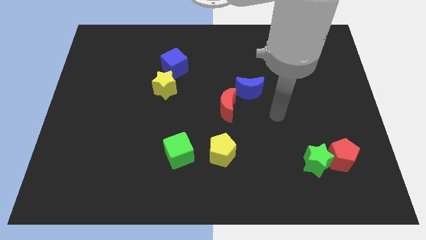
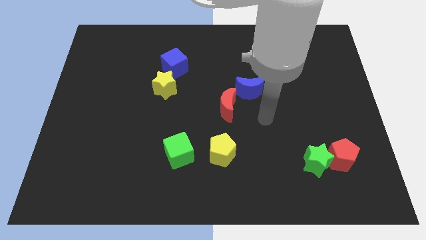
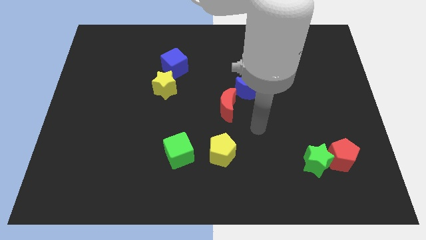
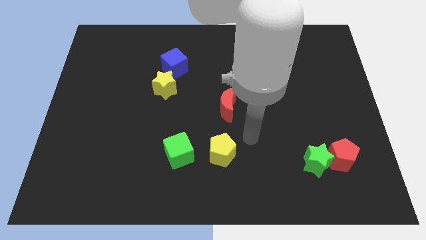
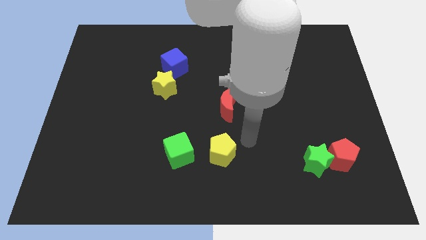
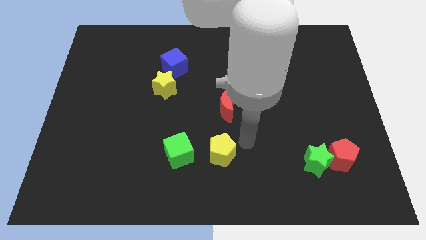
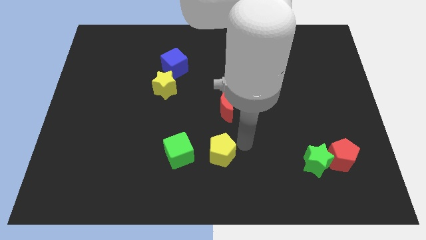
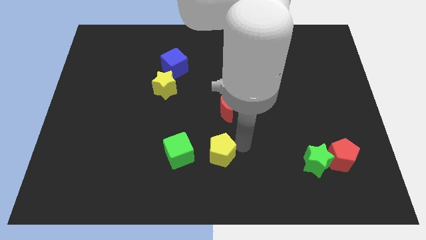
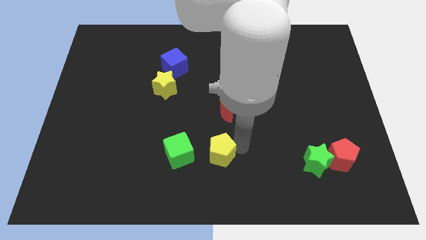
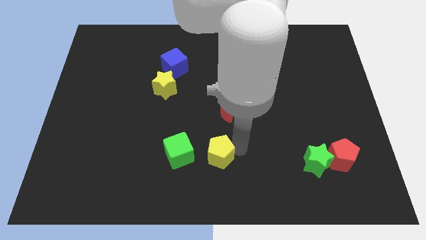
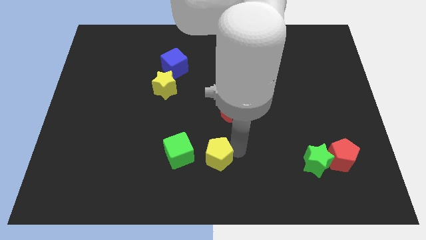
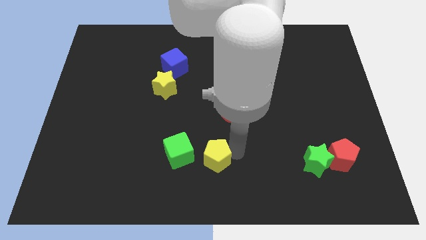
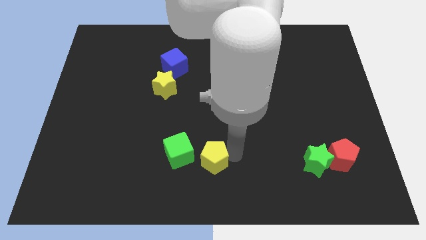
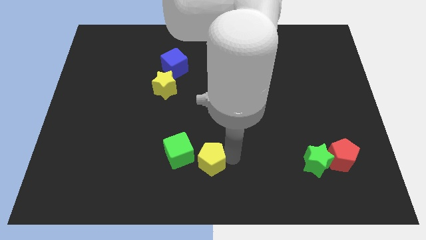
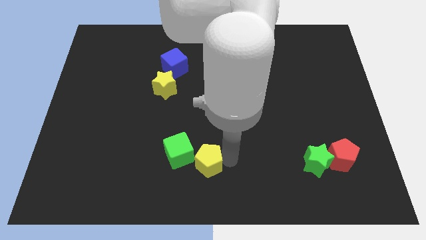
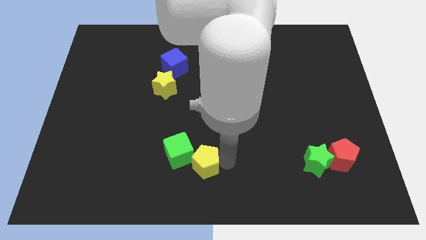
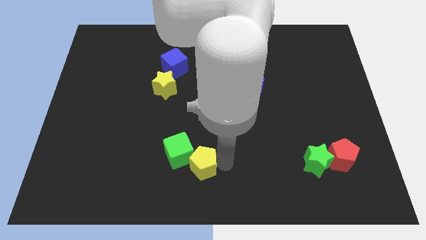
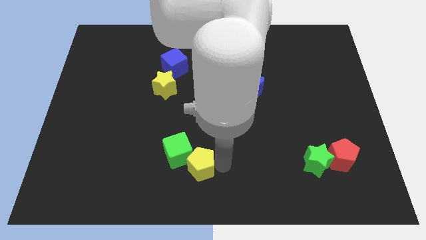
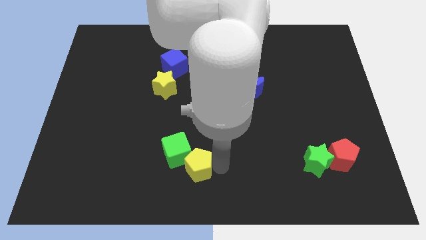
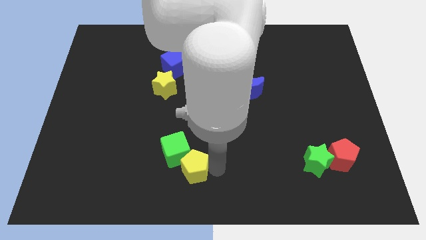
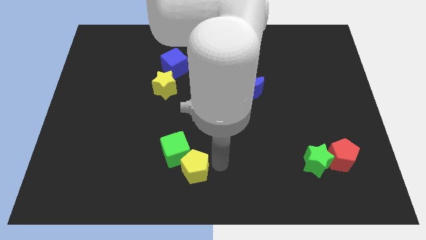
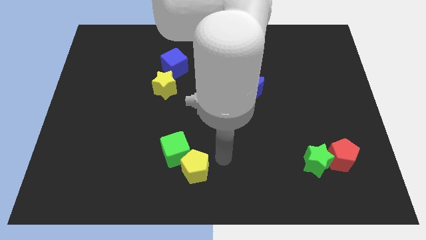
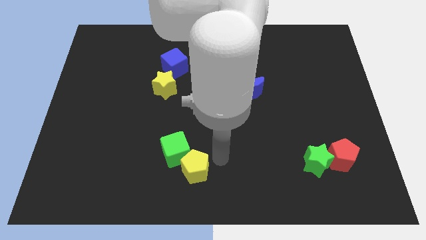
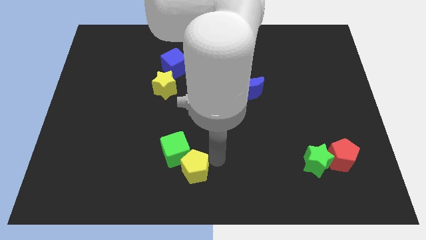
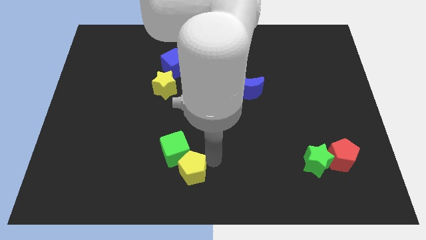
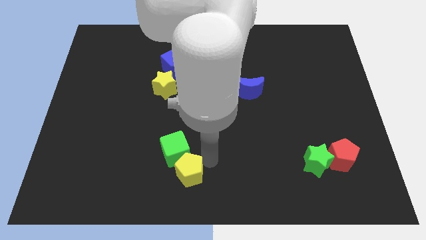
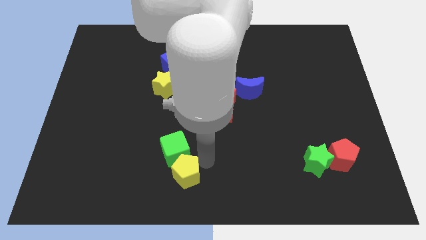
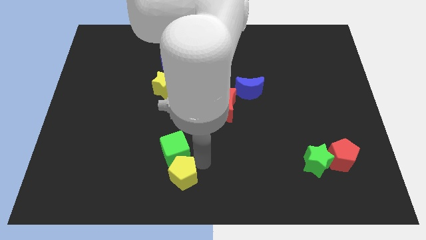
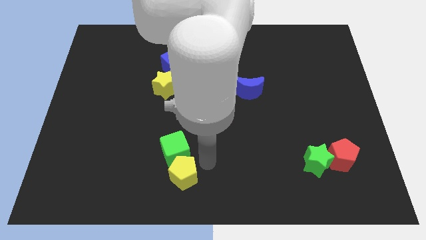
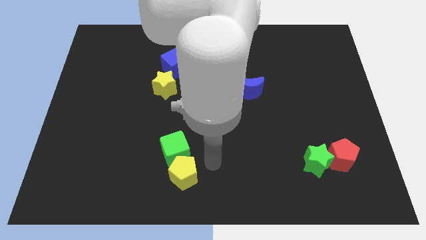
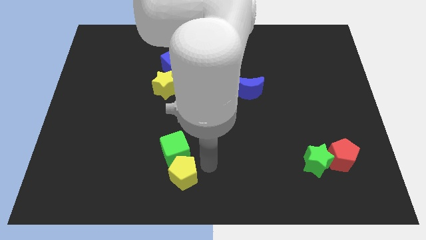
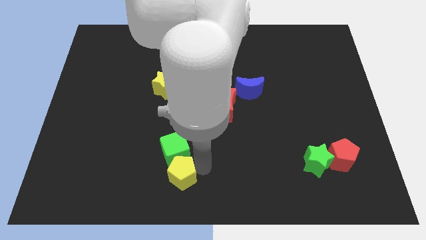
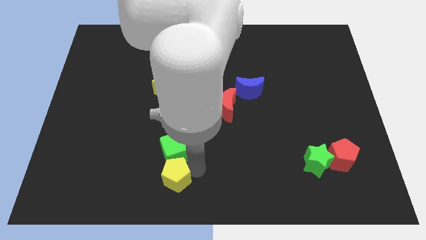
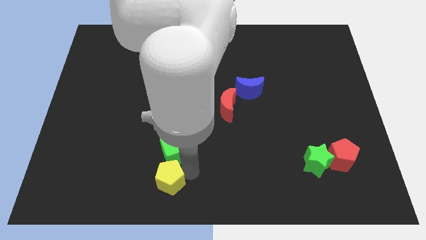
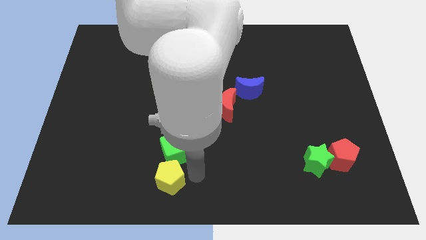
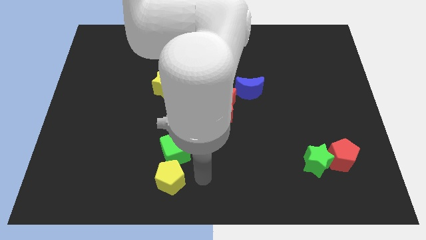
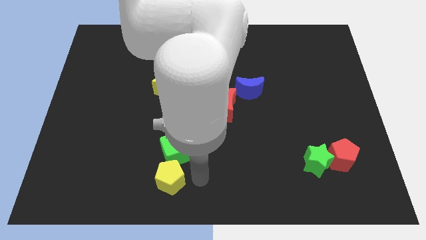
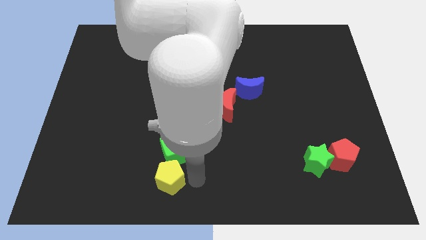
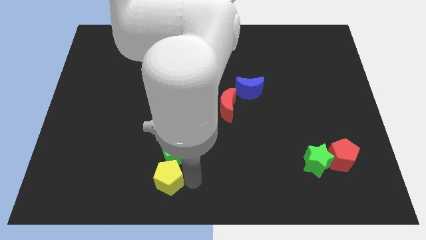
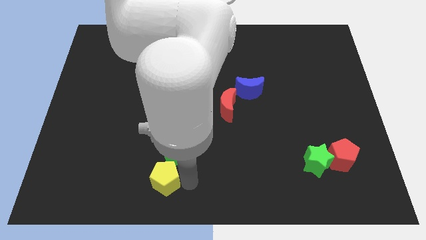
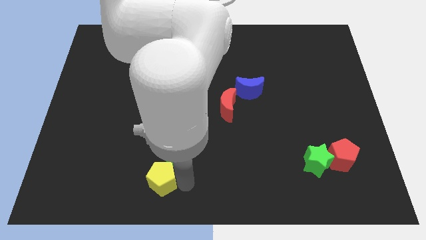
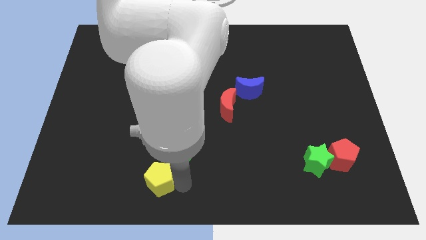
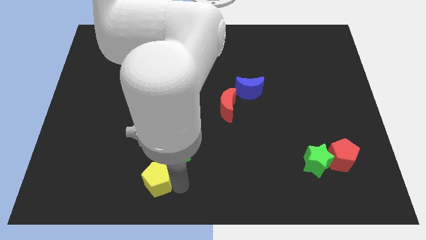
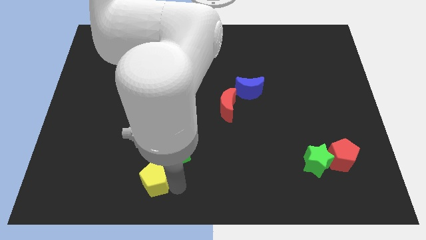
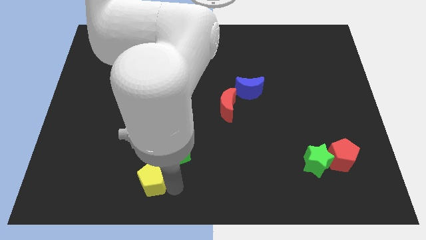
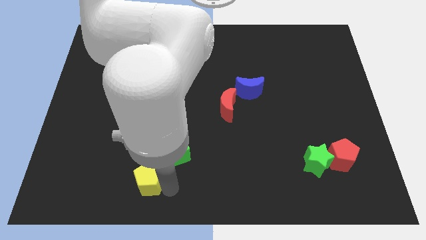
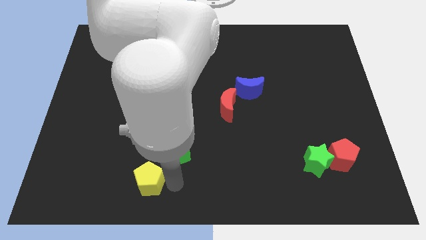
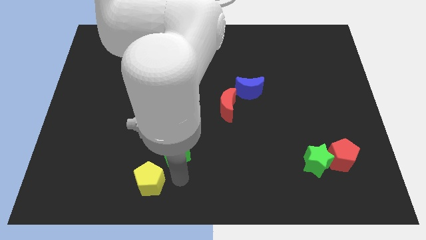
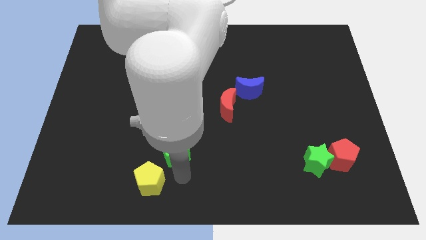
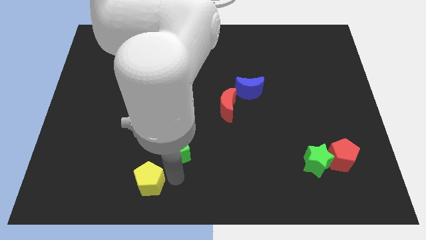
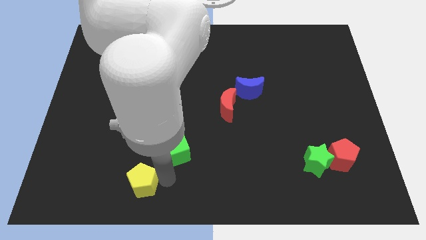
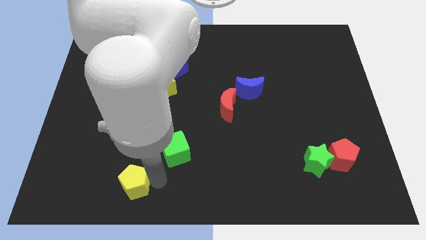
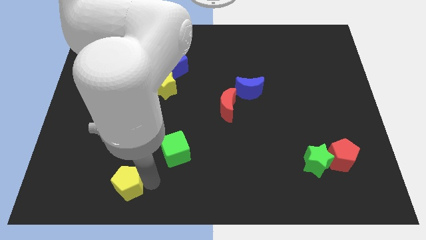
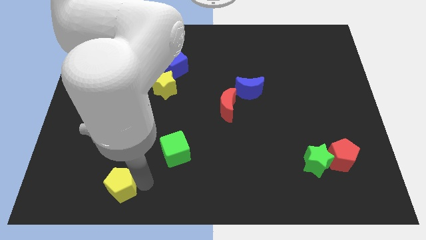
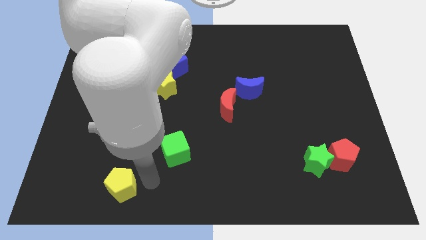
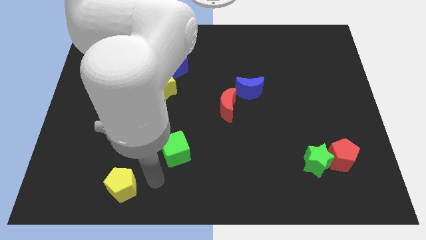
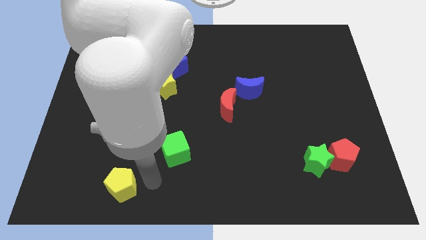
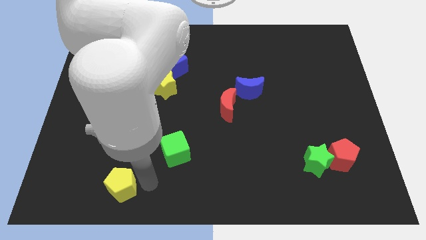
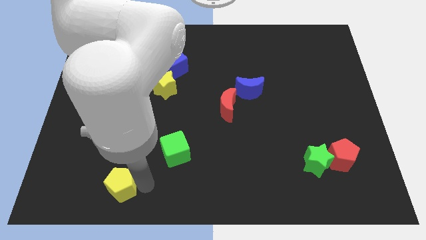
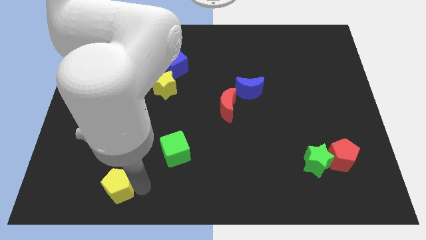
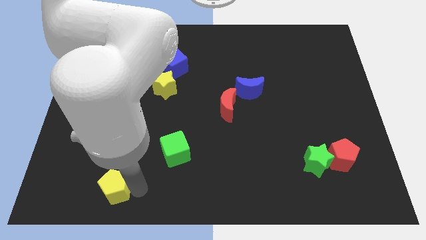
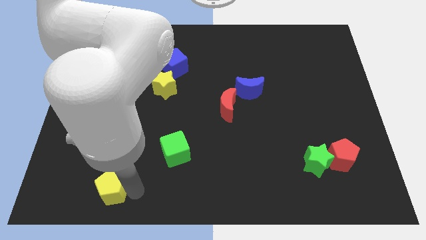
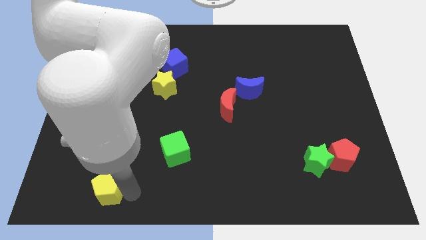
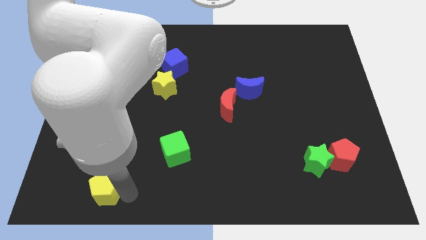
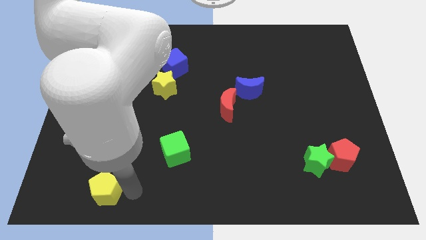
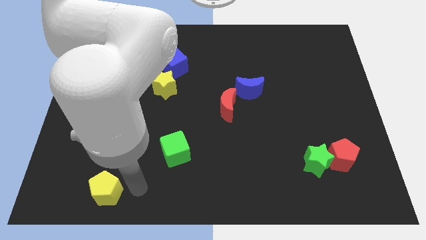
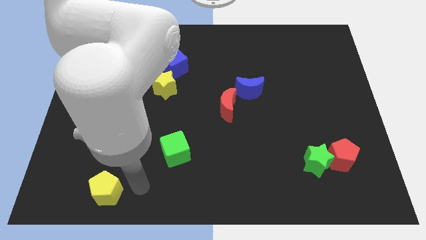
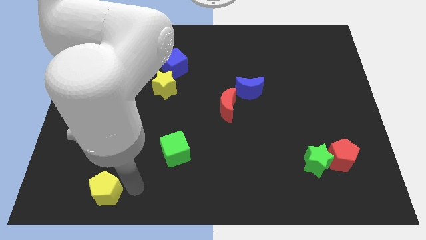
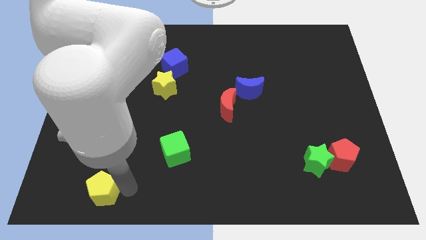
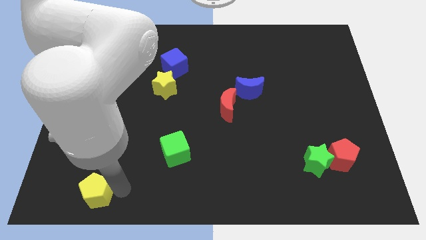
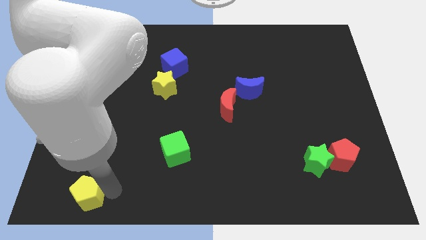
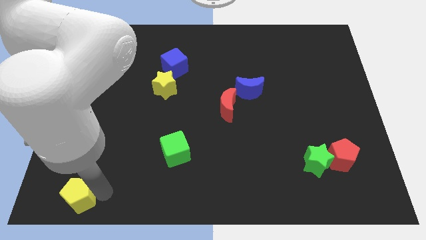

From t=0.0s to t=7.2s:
put the yellow pentagon to the bottom left of the board
